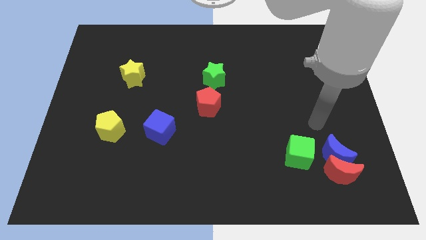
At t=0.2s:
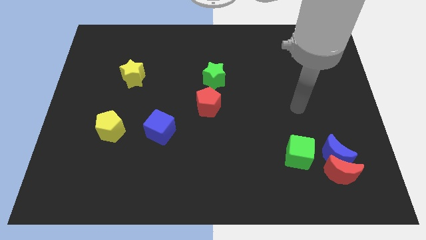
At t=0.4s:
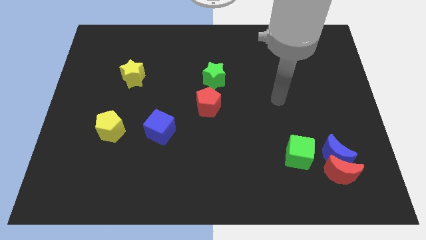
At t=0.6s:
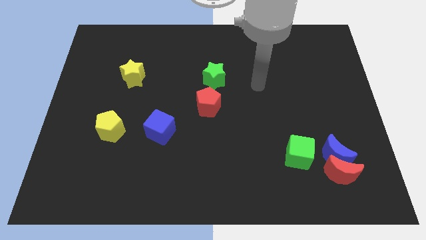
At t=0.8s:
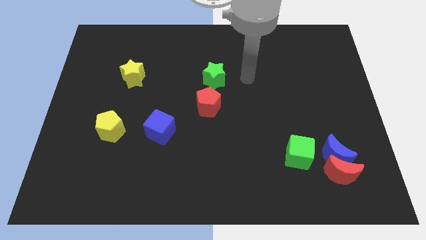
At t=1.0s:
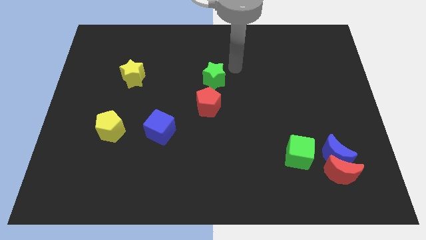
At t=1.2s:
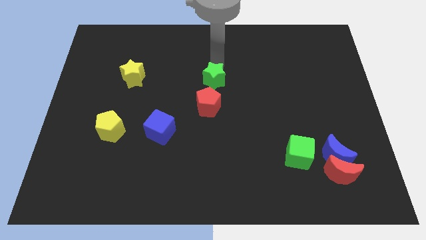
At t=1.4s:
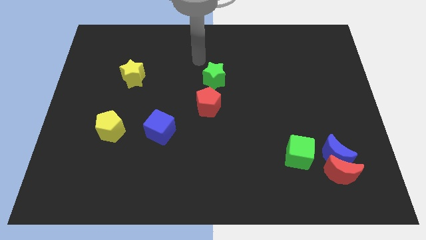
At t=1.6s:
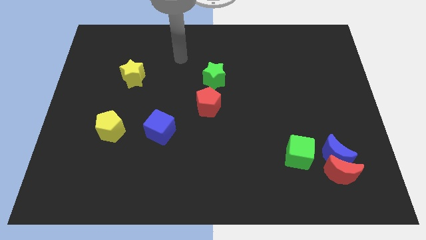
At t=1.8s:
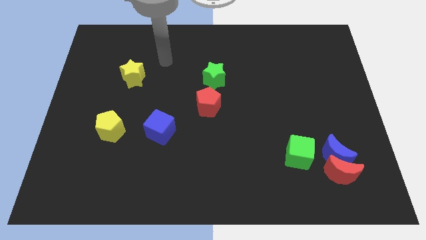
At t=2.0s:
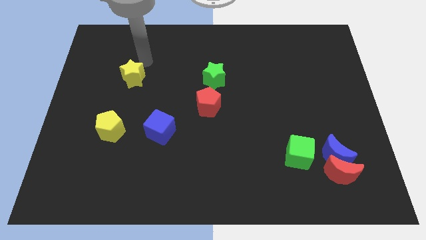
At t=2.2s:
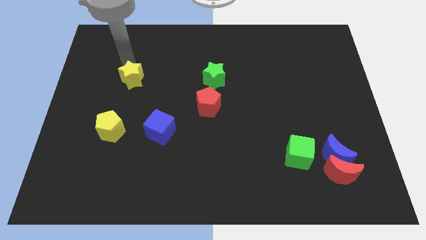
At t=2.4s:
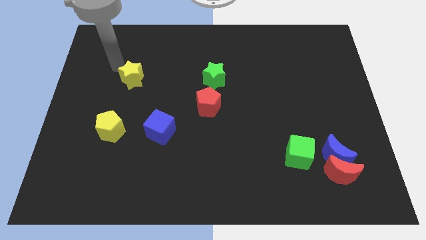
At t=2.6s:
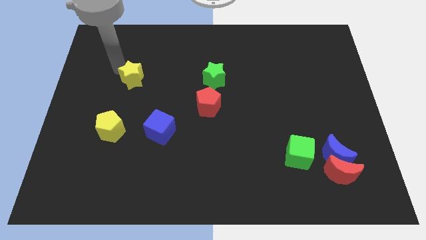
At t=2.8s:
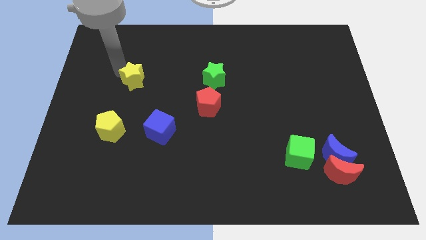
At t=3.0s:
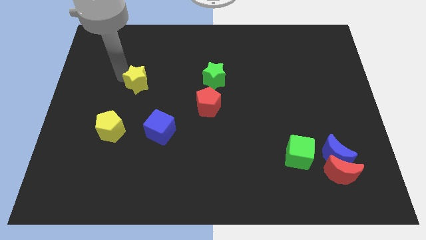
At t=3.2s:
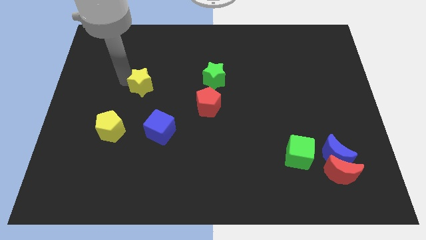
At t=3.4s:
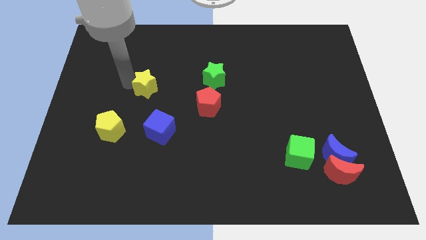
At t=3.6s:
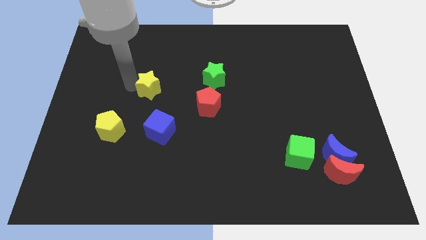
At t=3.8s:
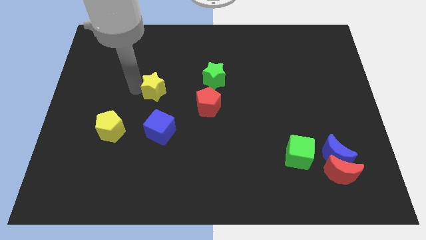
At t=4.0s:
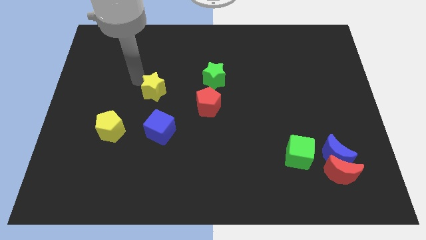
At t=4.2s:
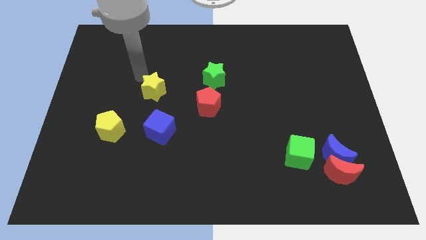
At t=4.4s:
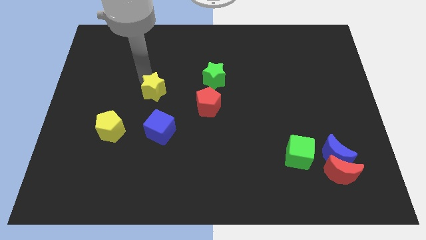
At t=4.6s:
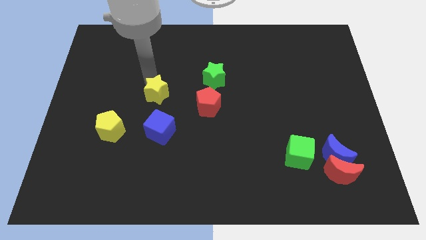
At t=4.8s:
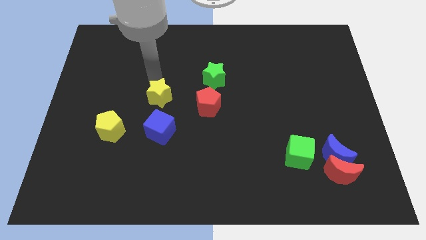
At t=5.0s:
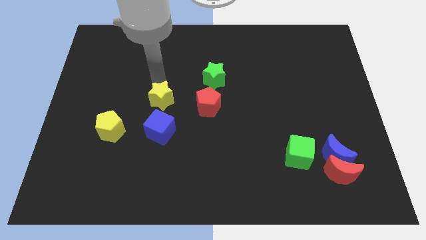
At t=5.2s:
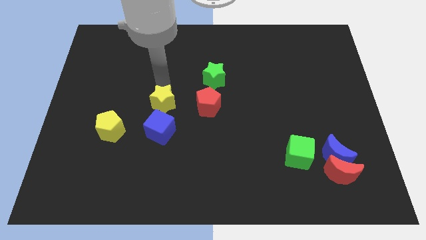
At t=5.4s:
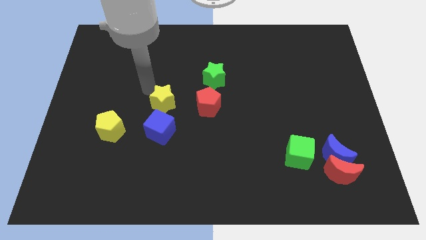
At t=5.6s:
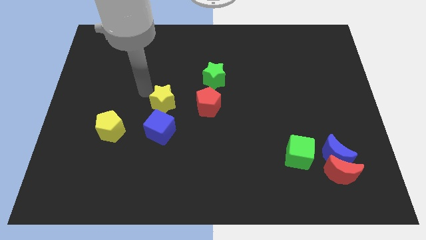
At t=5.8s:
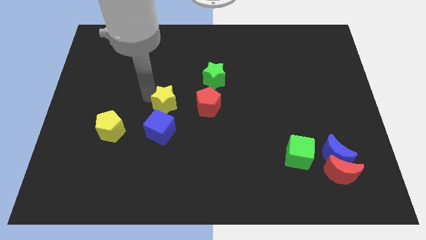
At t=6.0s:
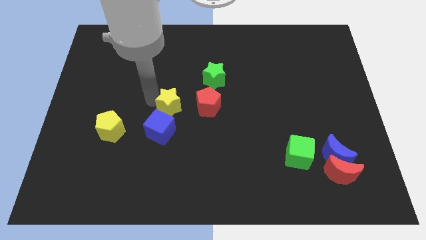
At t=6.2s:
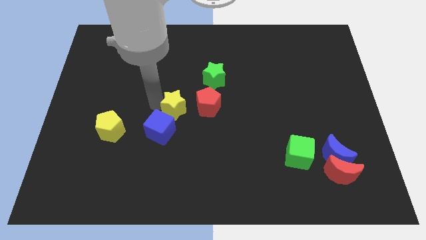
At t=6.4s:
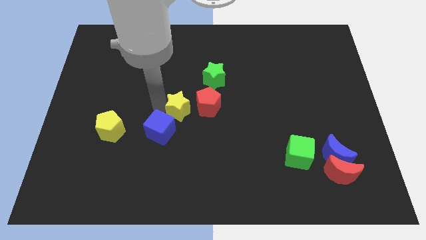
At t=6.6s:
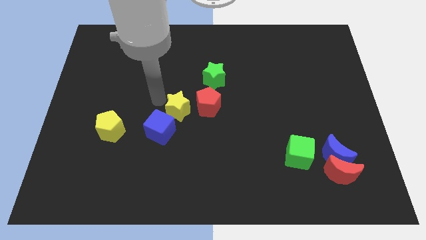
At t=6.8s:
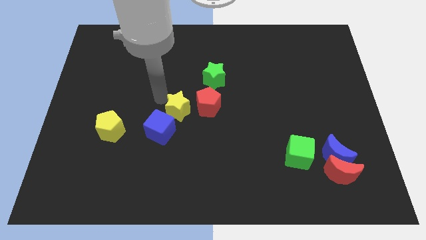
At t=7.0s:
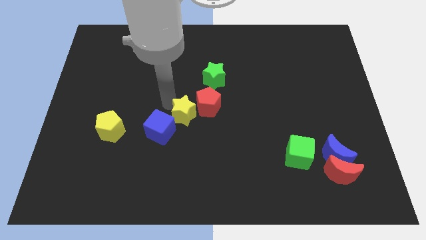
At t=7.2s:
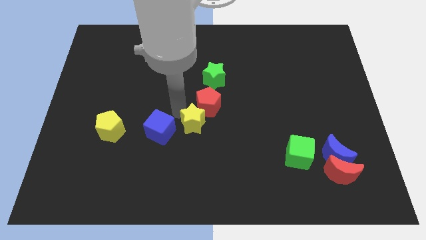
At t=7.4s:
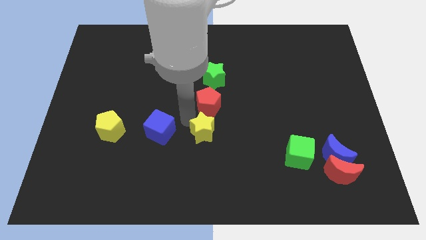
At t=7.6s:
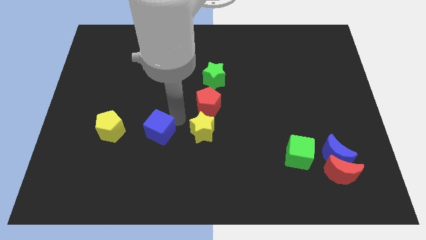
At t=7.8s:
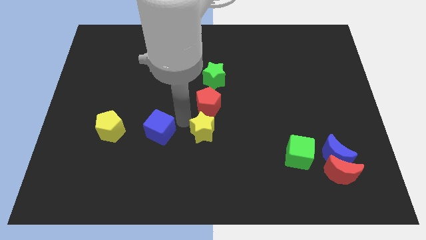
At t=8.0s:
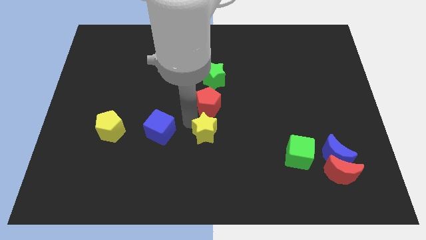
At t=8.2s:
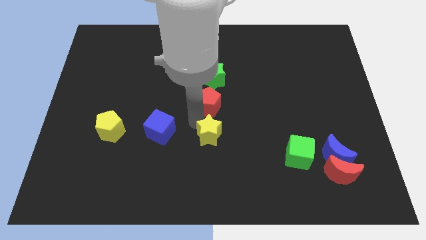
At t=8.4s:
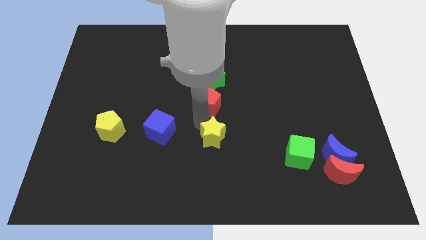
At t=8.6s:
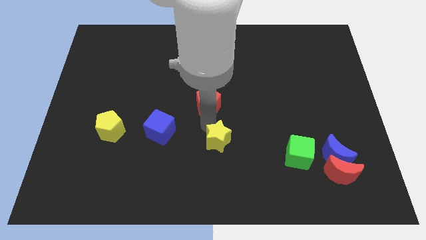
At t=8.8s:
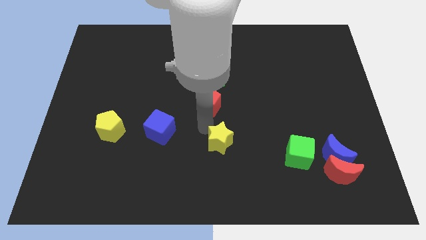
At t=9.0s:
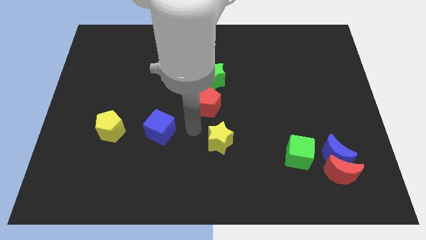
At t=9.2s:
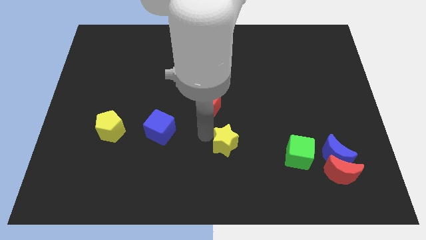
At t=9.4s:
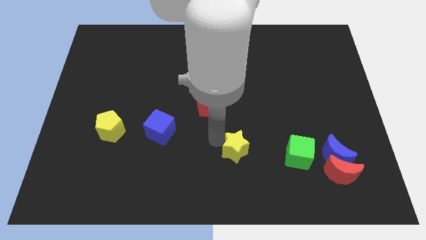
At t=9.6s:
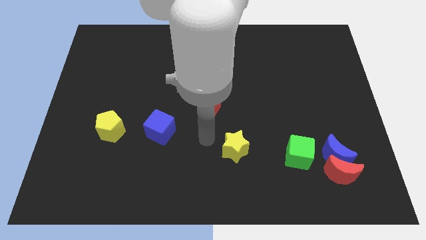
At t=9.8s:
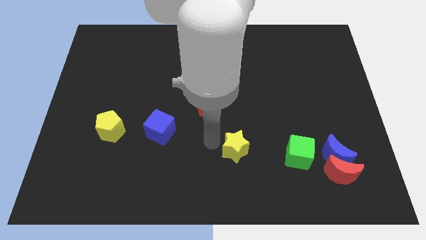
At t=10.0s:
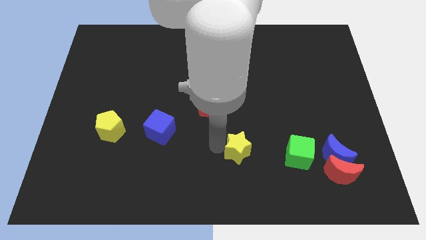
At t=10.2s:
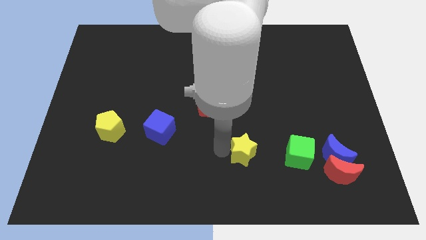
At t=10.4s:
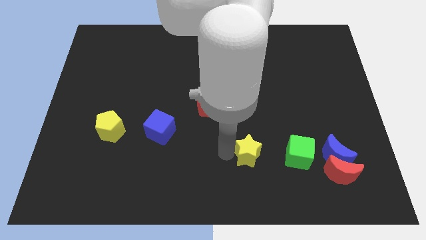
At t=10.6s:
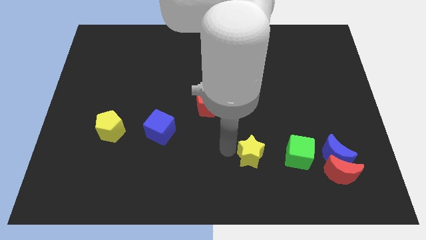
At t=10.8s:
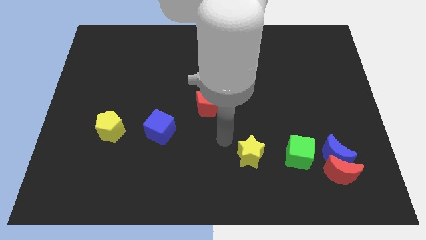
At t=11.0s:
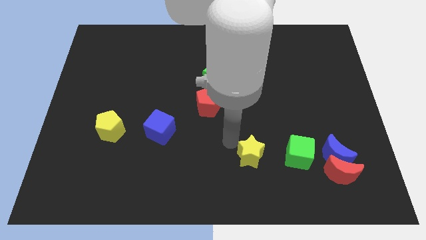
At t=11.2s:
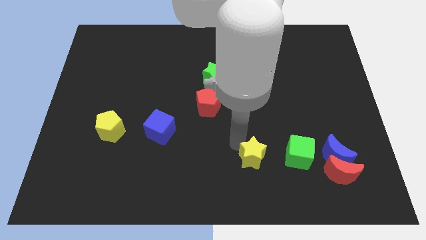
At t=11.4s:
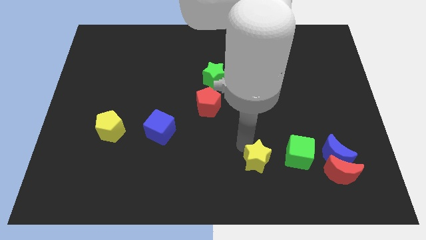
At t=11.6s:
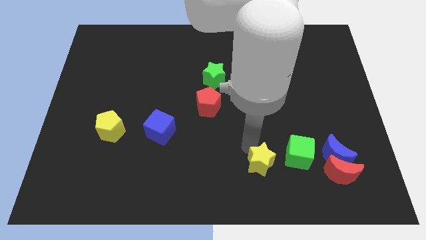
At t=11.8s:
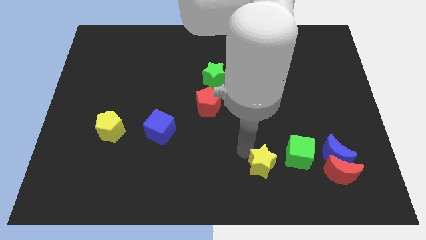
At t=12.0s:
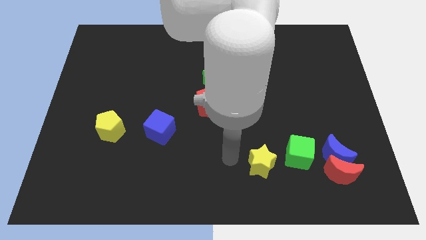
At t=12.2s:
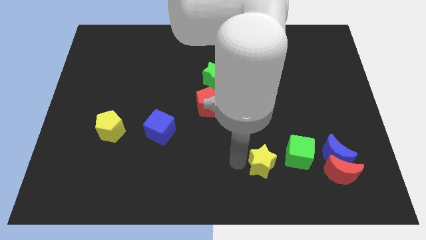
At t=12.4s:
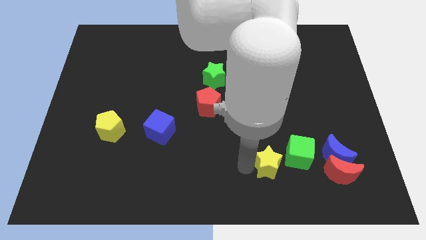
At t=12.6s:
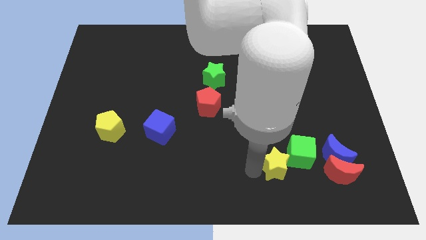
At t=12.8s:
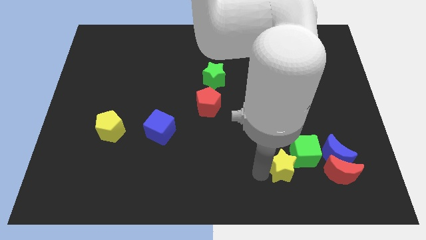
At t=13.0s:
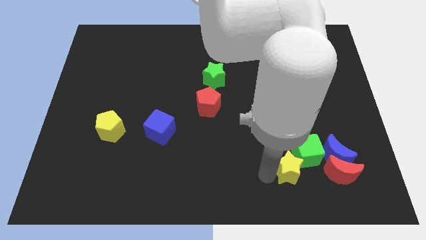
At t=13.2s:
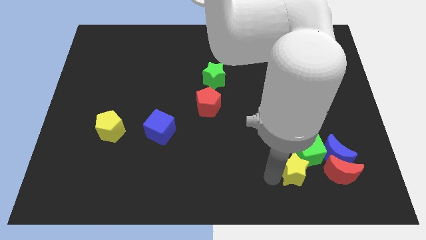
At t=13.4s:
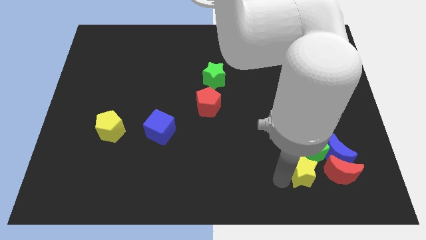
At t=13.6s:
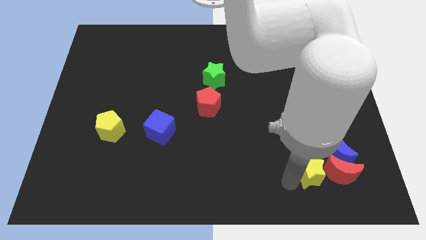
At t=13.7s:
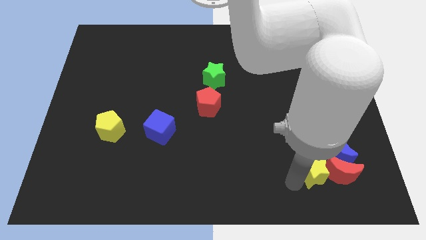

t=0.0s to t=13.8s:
slide the yellow star to the red moon
